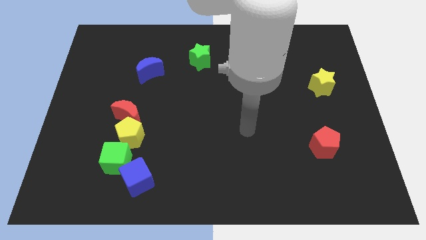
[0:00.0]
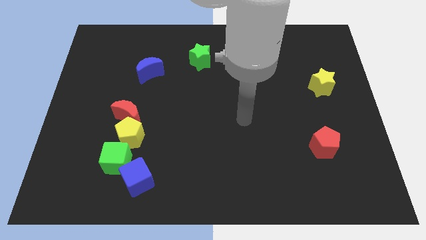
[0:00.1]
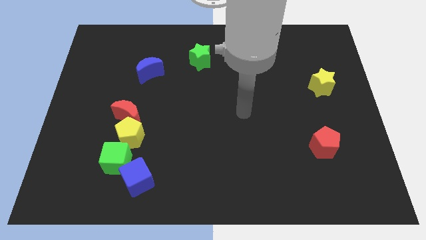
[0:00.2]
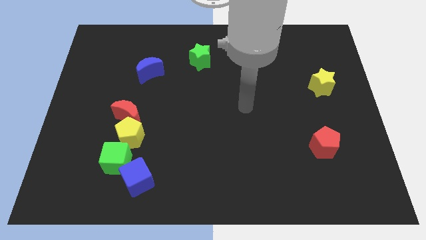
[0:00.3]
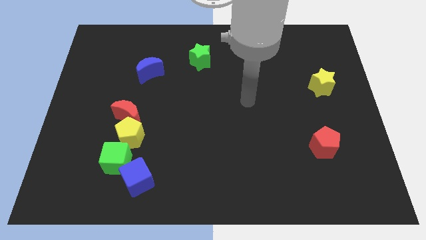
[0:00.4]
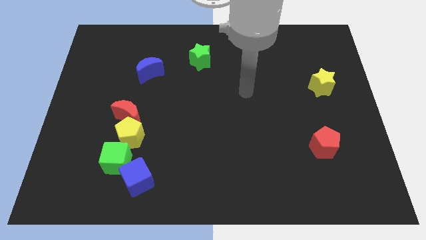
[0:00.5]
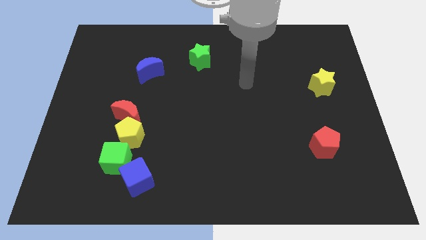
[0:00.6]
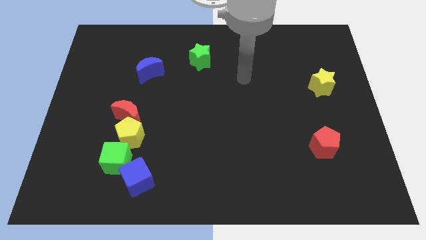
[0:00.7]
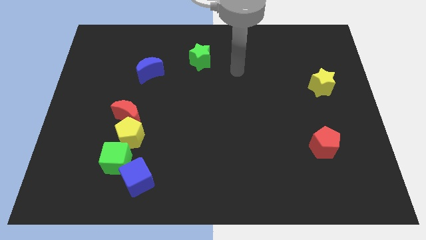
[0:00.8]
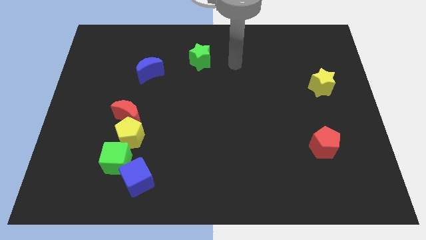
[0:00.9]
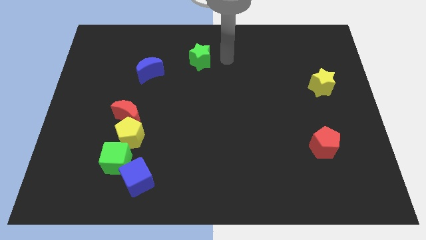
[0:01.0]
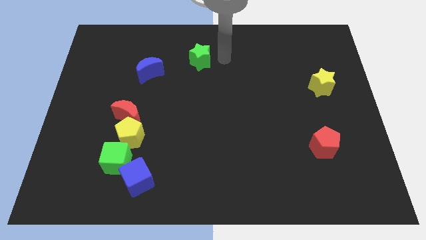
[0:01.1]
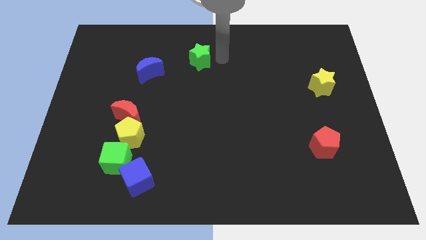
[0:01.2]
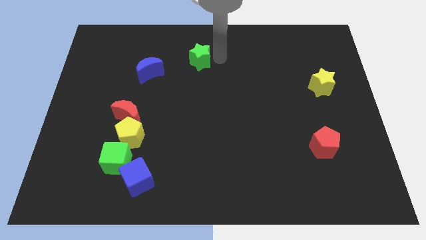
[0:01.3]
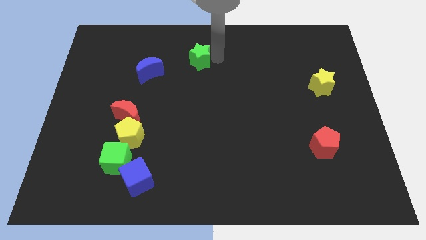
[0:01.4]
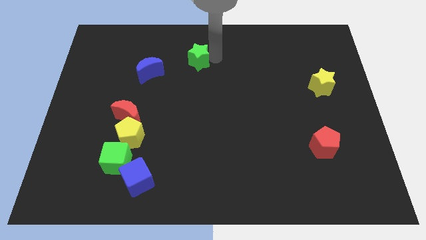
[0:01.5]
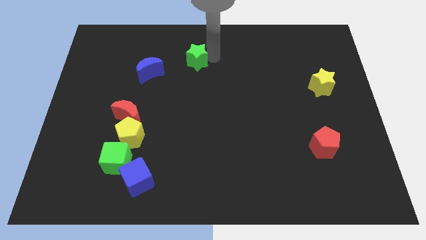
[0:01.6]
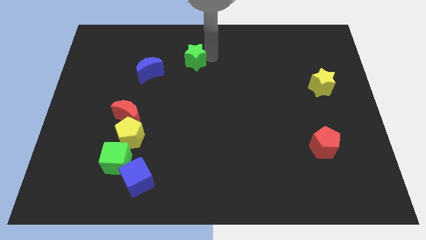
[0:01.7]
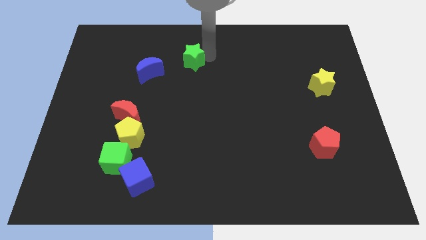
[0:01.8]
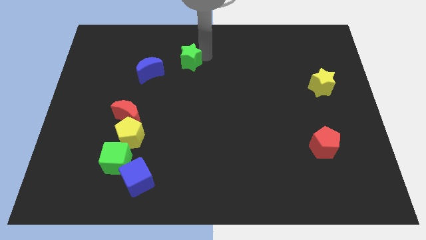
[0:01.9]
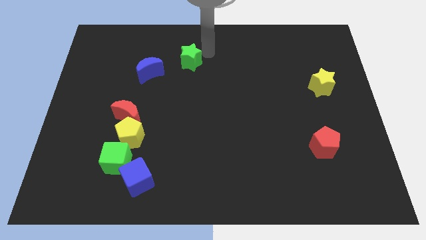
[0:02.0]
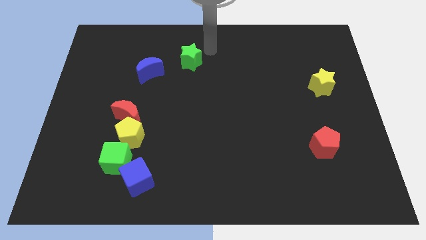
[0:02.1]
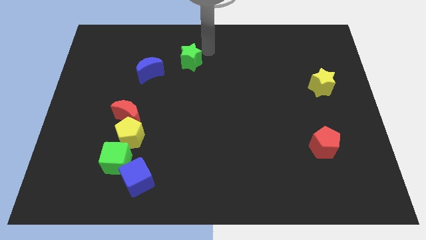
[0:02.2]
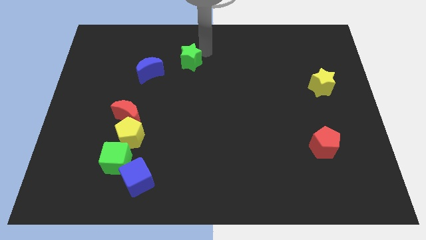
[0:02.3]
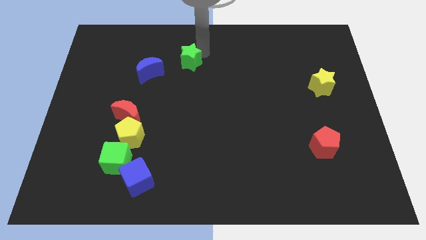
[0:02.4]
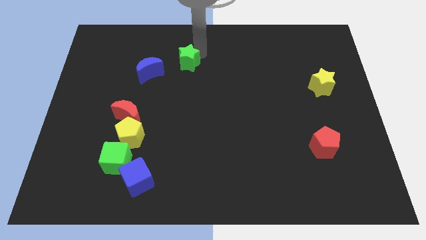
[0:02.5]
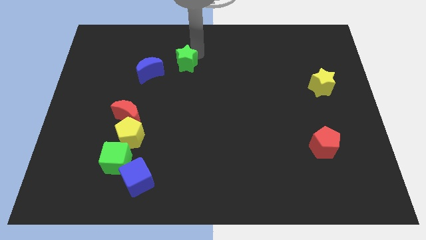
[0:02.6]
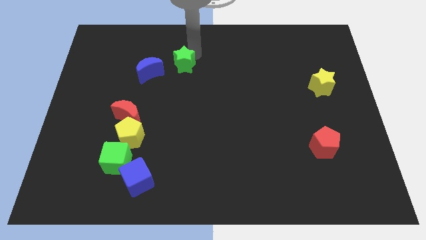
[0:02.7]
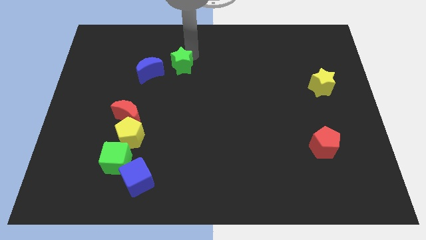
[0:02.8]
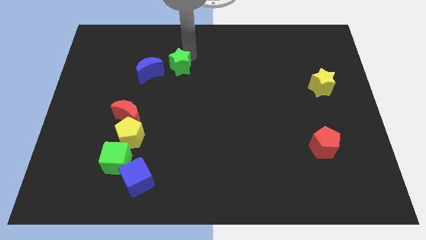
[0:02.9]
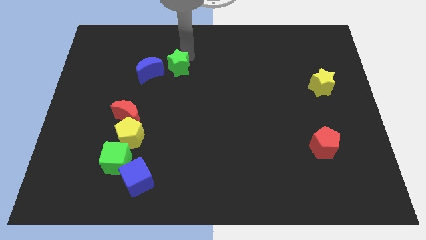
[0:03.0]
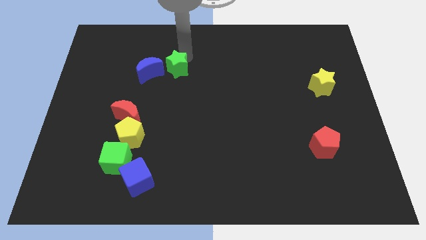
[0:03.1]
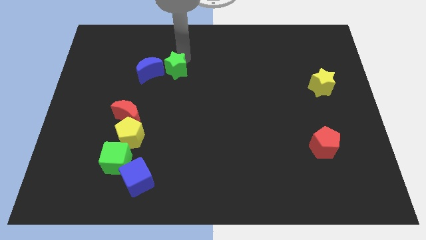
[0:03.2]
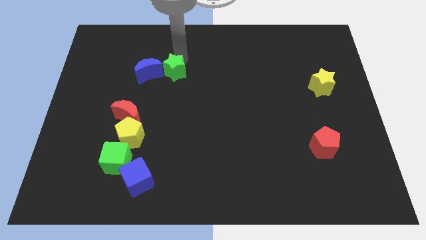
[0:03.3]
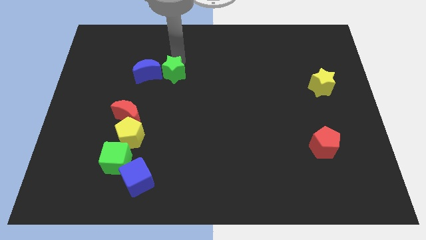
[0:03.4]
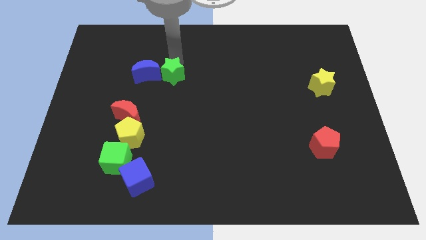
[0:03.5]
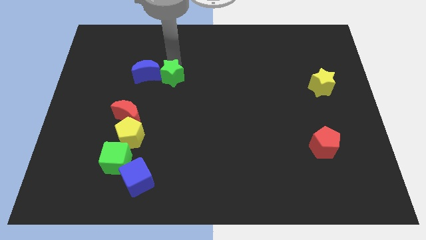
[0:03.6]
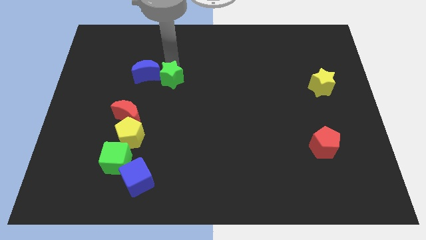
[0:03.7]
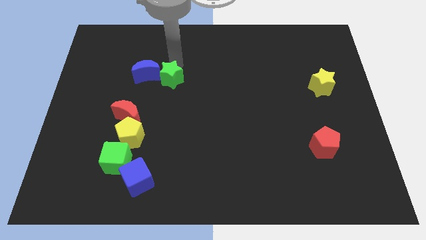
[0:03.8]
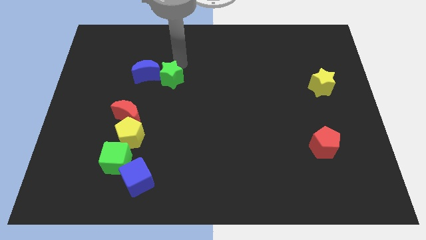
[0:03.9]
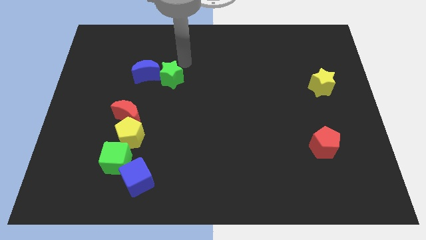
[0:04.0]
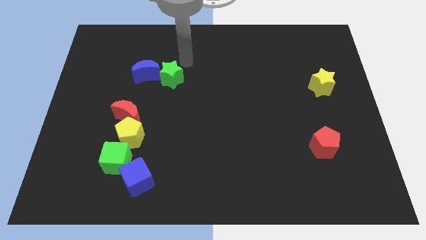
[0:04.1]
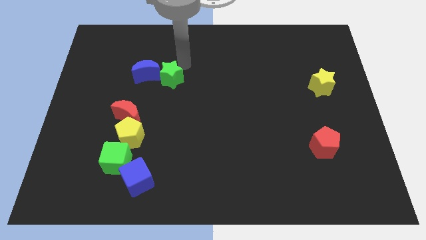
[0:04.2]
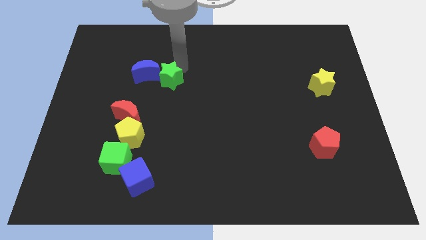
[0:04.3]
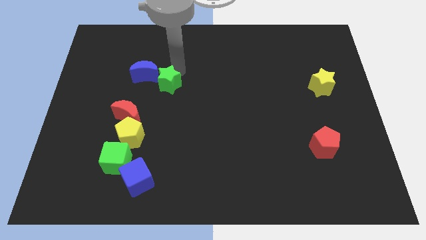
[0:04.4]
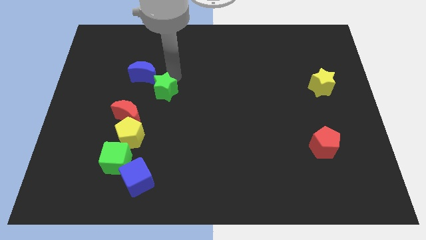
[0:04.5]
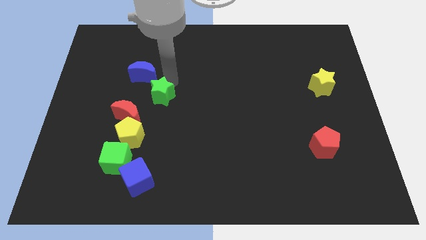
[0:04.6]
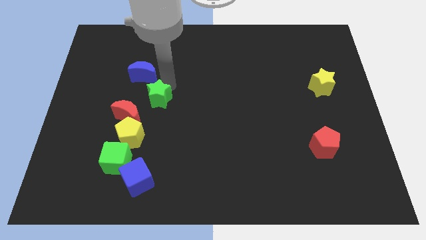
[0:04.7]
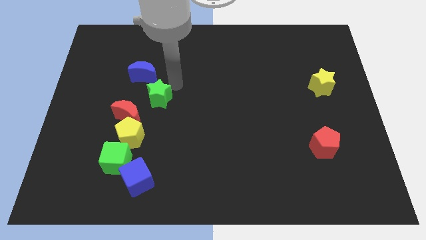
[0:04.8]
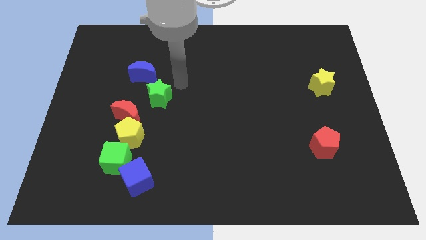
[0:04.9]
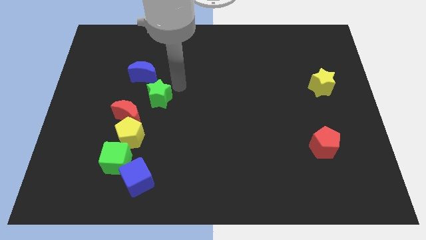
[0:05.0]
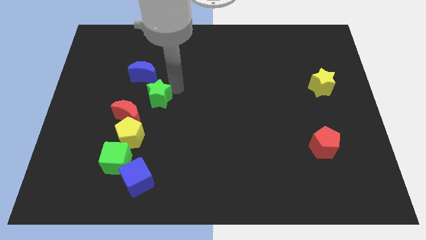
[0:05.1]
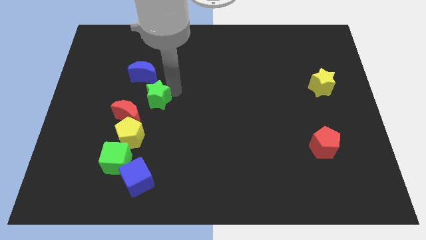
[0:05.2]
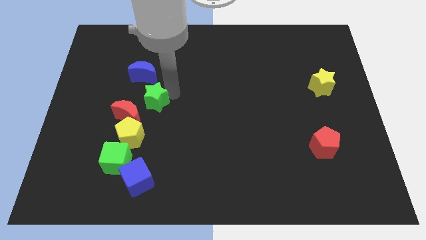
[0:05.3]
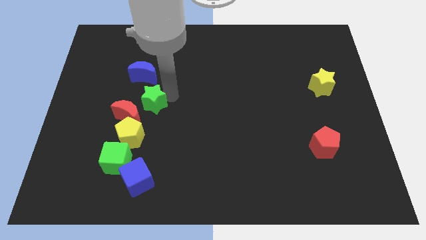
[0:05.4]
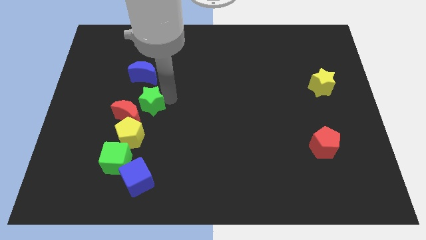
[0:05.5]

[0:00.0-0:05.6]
push the green star close to the red moon

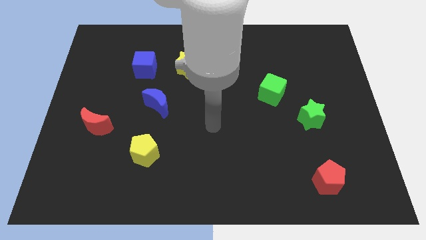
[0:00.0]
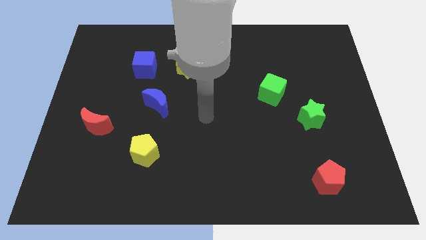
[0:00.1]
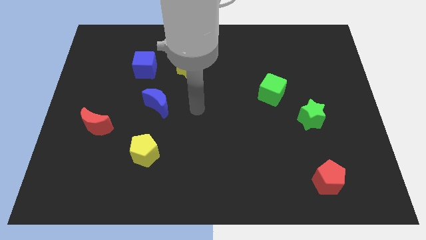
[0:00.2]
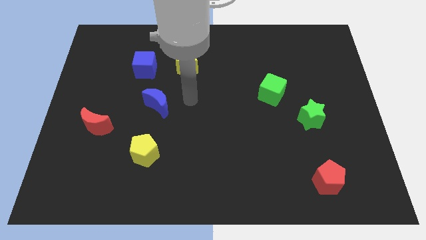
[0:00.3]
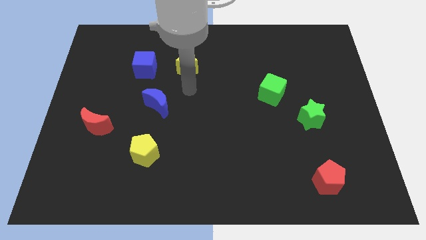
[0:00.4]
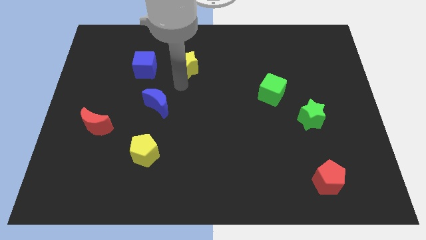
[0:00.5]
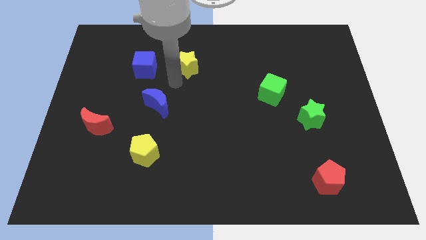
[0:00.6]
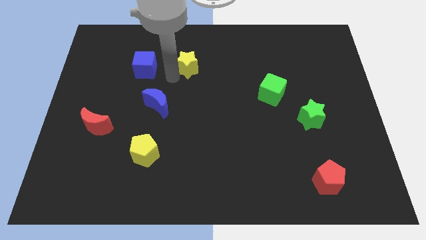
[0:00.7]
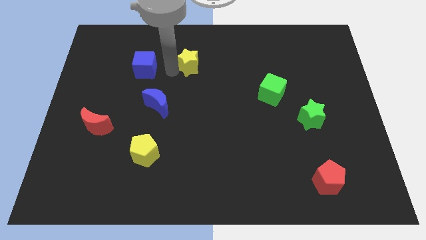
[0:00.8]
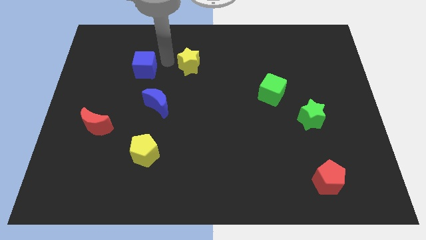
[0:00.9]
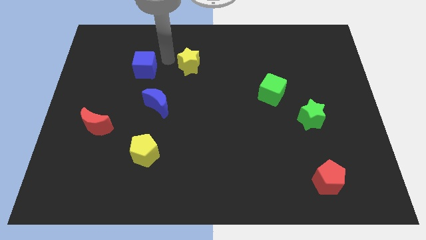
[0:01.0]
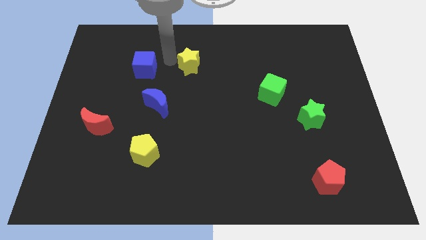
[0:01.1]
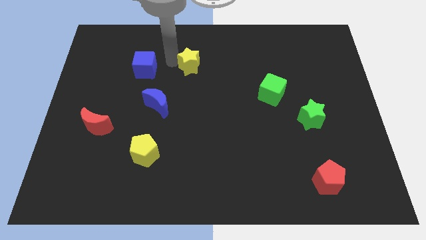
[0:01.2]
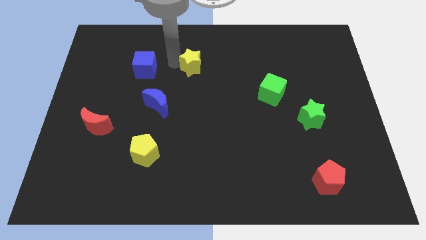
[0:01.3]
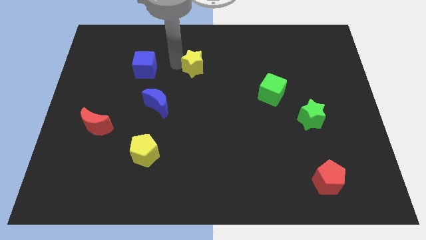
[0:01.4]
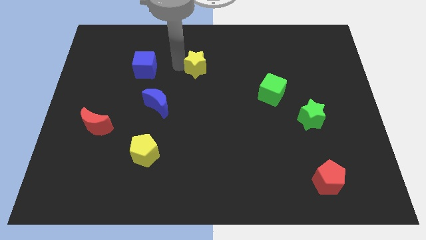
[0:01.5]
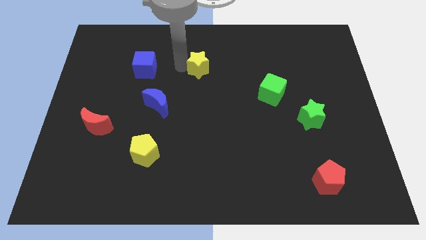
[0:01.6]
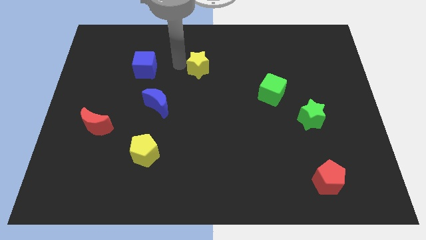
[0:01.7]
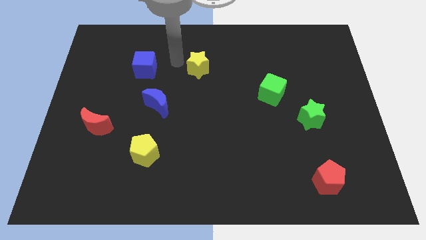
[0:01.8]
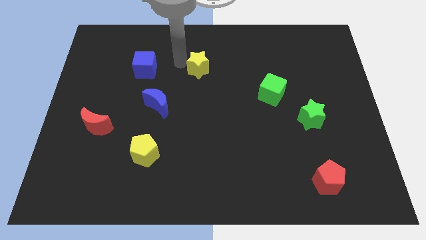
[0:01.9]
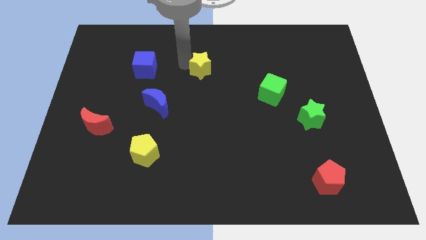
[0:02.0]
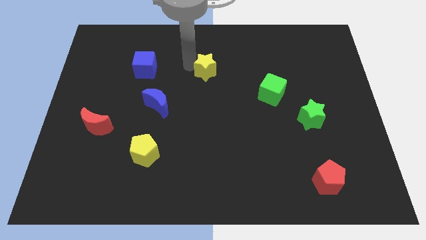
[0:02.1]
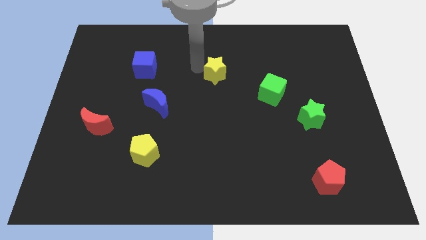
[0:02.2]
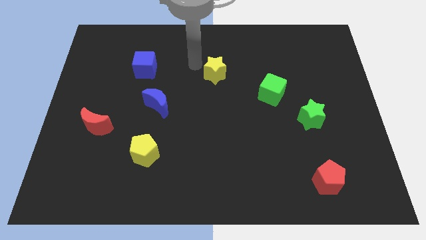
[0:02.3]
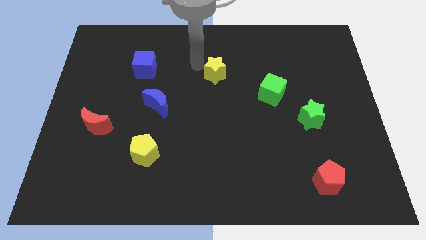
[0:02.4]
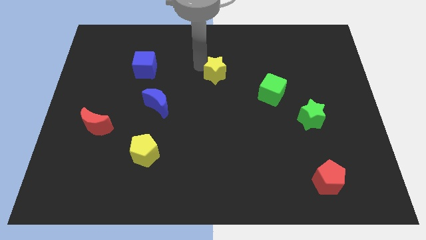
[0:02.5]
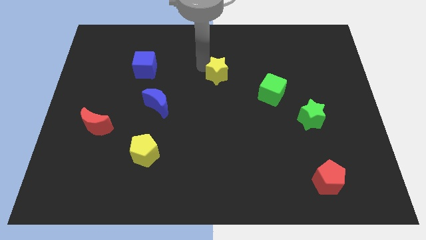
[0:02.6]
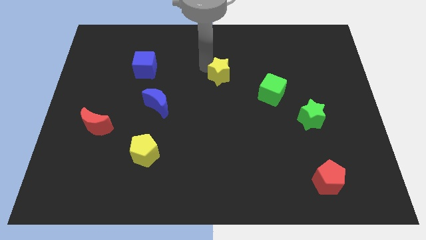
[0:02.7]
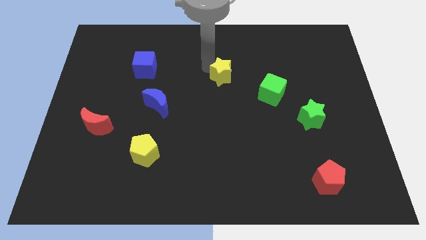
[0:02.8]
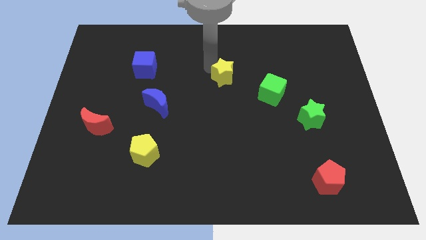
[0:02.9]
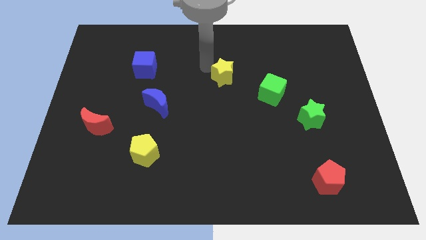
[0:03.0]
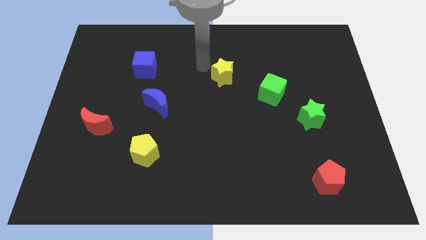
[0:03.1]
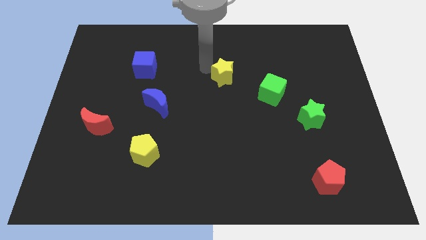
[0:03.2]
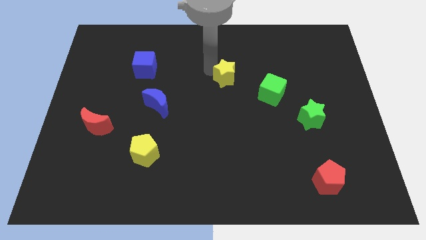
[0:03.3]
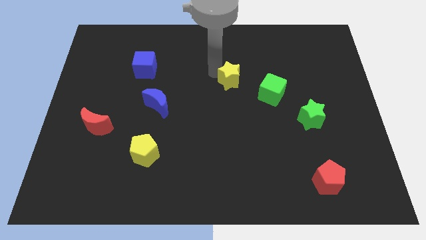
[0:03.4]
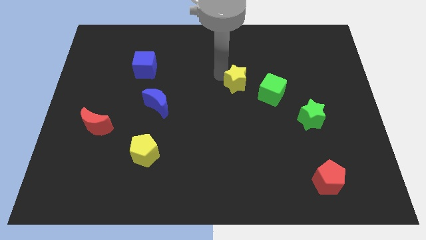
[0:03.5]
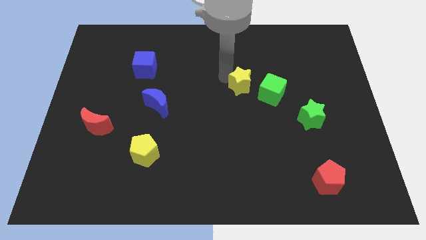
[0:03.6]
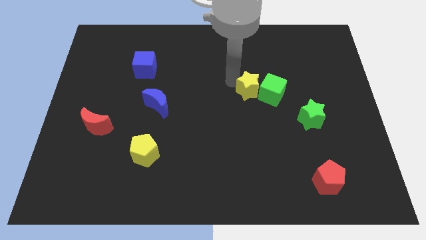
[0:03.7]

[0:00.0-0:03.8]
move the yellow star close to the green cube
